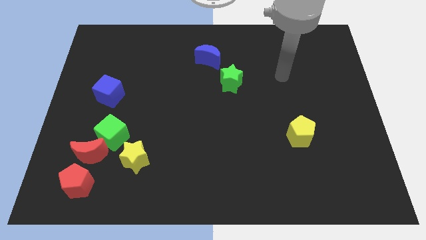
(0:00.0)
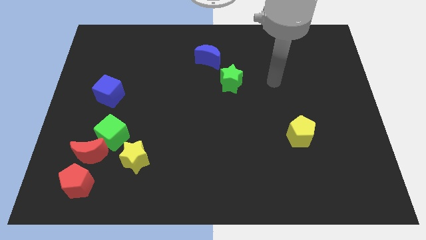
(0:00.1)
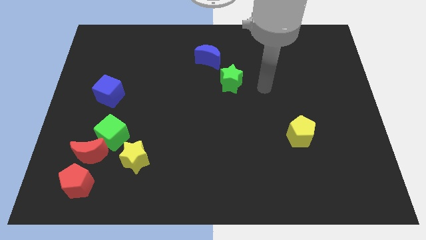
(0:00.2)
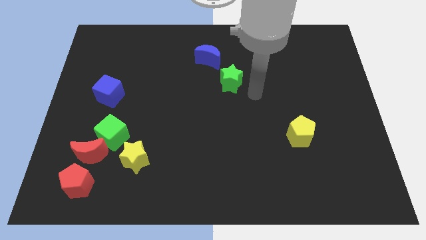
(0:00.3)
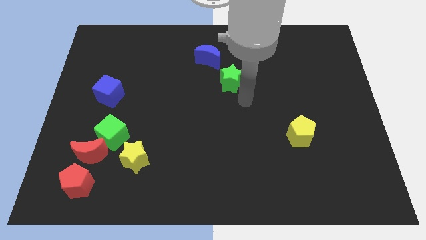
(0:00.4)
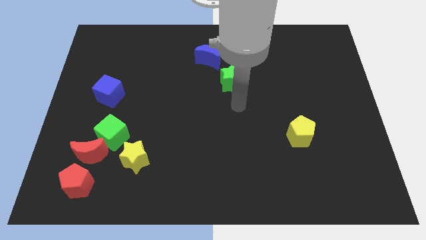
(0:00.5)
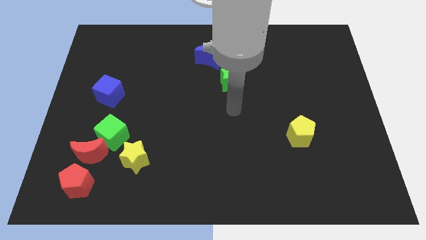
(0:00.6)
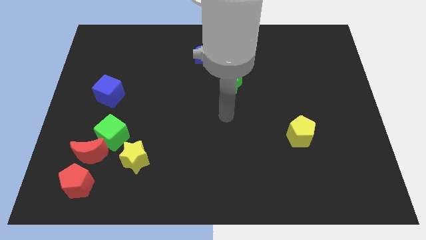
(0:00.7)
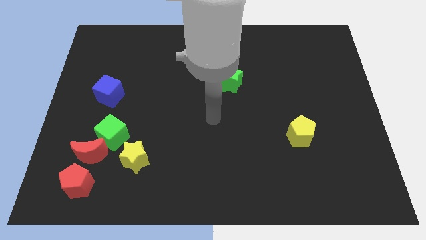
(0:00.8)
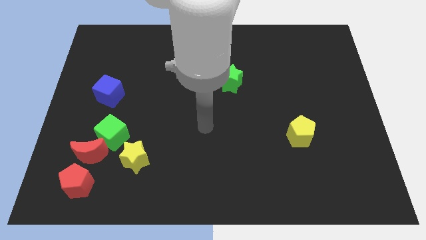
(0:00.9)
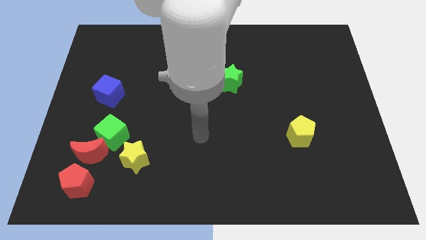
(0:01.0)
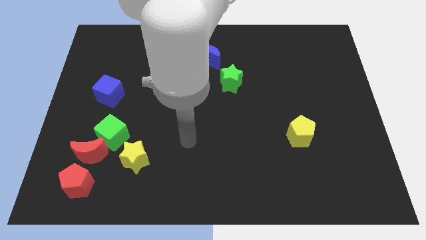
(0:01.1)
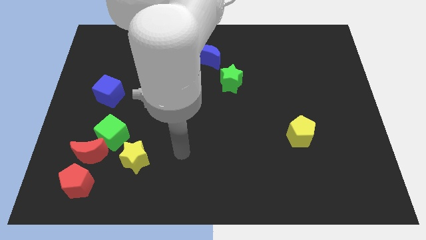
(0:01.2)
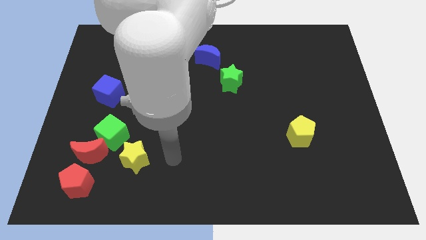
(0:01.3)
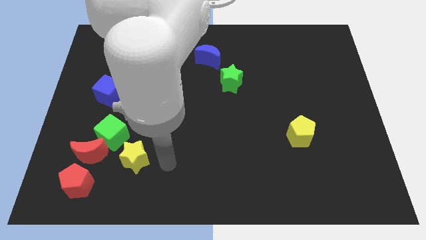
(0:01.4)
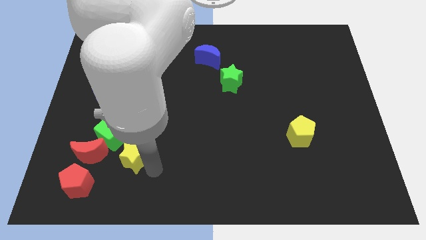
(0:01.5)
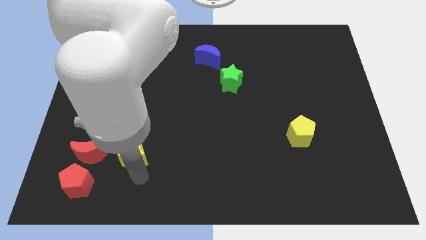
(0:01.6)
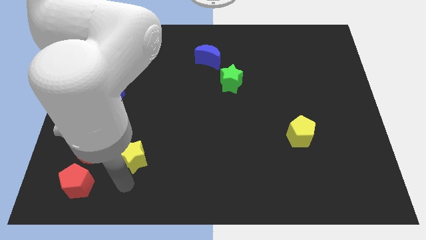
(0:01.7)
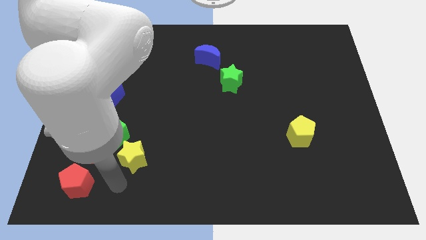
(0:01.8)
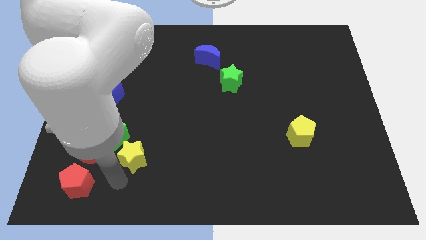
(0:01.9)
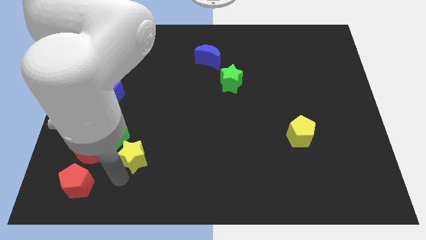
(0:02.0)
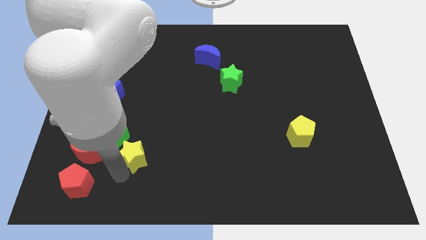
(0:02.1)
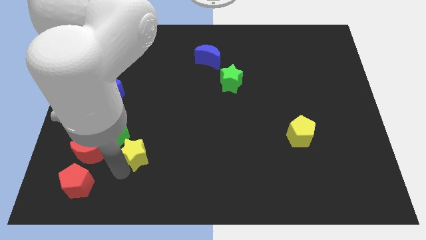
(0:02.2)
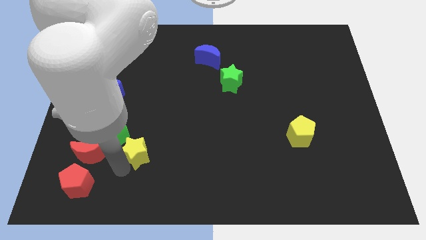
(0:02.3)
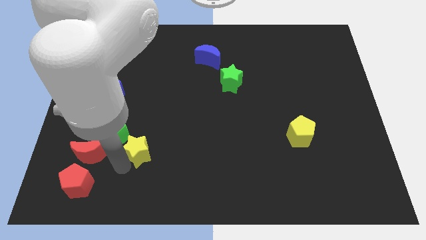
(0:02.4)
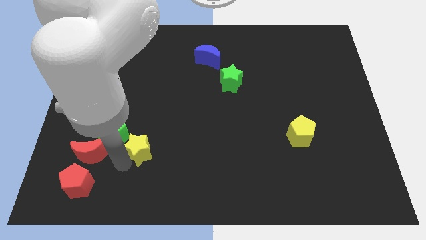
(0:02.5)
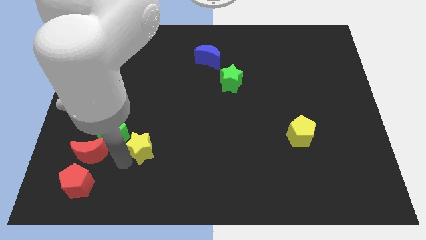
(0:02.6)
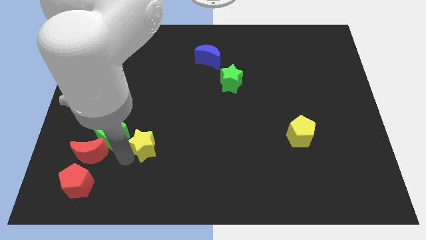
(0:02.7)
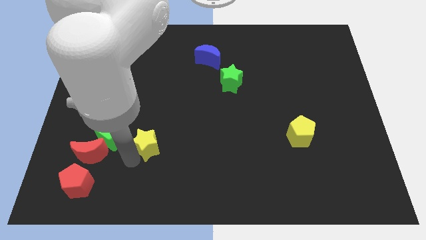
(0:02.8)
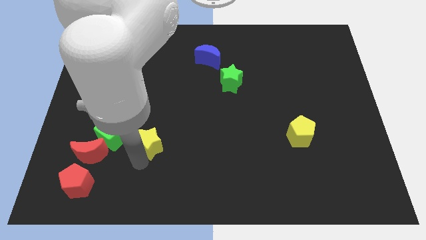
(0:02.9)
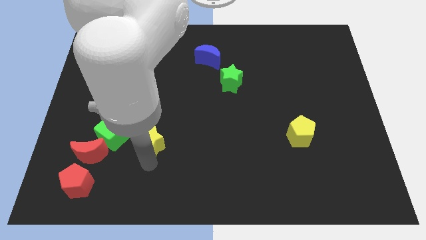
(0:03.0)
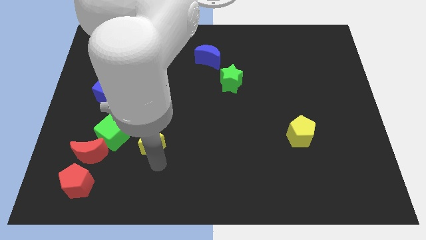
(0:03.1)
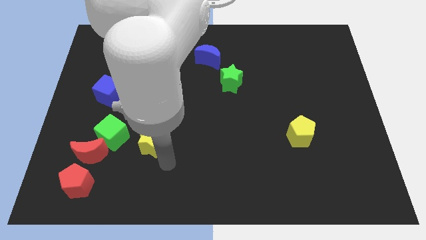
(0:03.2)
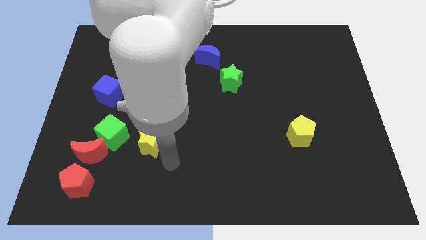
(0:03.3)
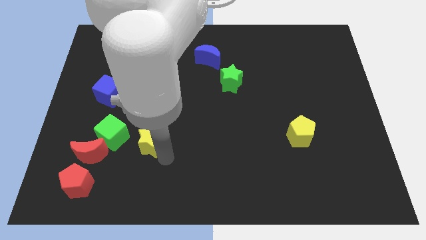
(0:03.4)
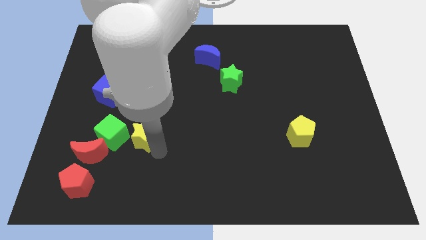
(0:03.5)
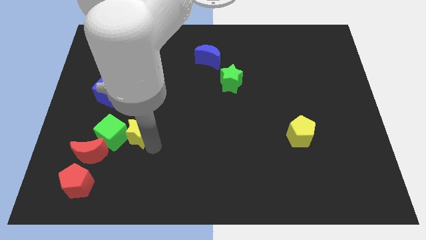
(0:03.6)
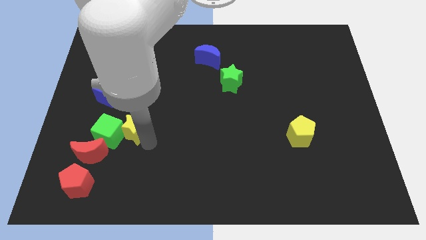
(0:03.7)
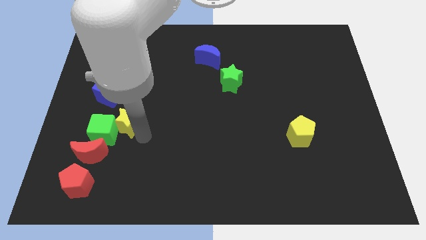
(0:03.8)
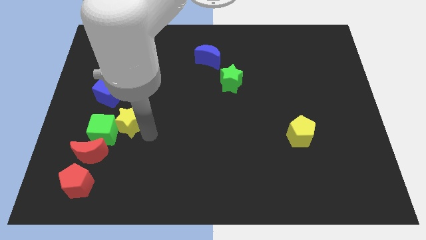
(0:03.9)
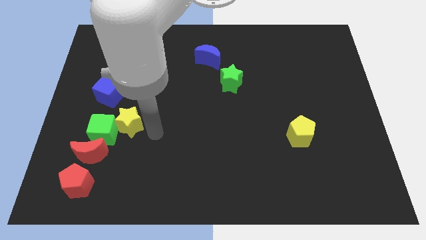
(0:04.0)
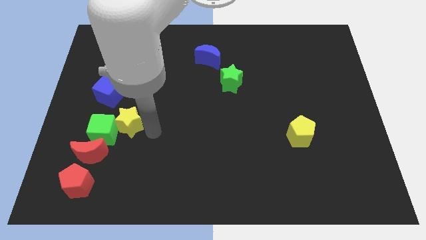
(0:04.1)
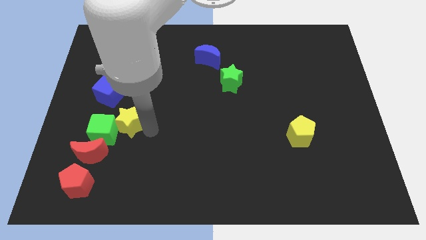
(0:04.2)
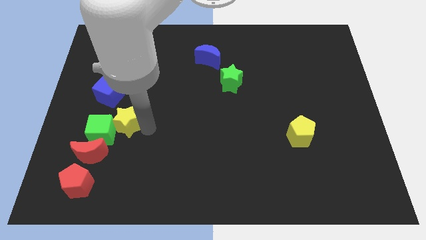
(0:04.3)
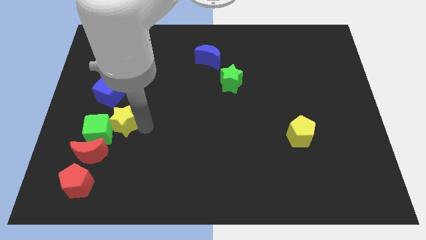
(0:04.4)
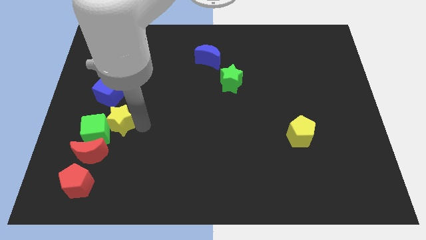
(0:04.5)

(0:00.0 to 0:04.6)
slide the yellow star to the top of the red moon

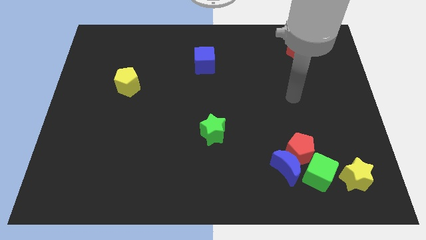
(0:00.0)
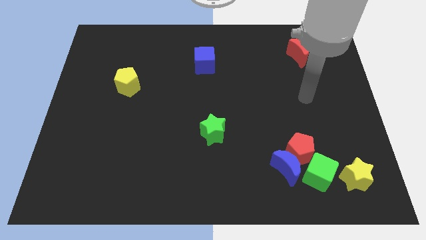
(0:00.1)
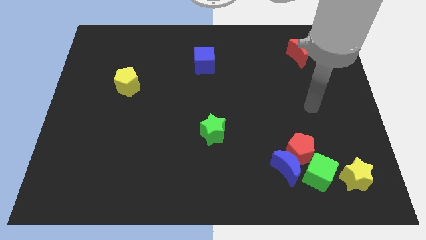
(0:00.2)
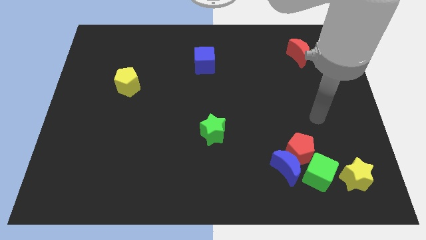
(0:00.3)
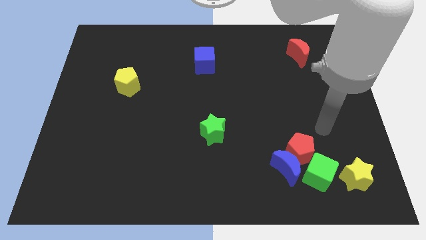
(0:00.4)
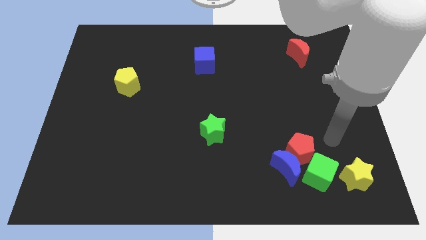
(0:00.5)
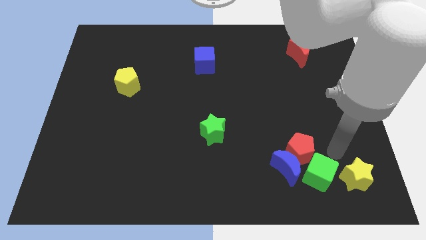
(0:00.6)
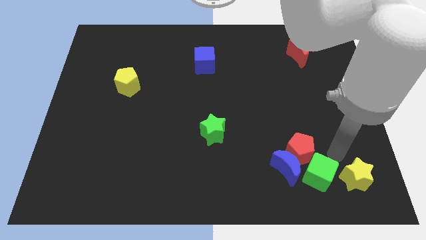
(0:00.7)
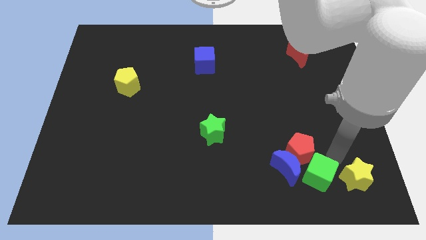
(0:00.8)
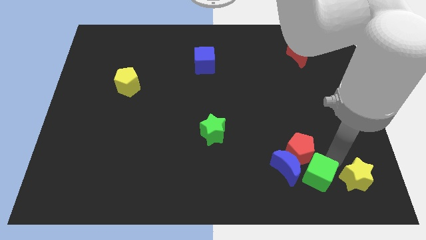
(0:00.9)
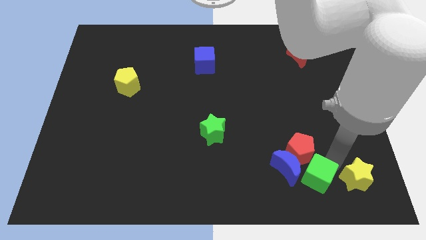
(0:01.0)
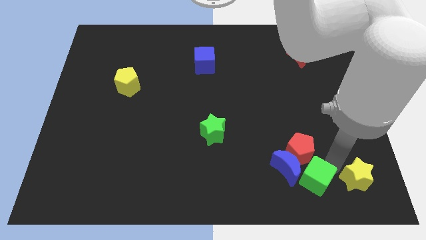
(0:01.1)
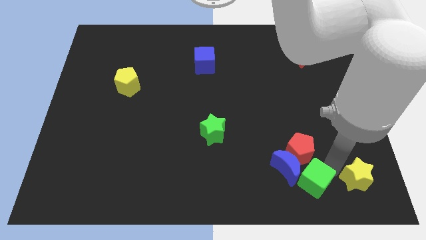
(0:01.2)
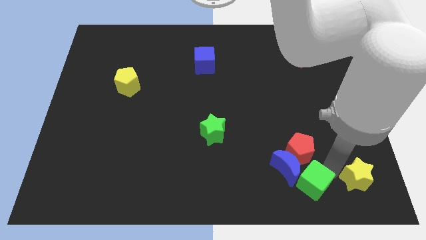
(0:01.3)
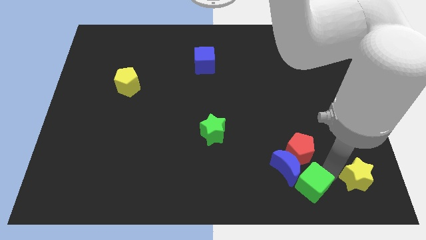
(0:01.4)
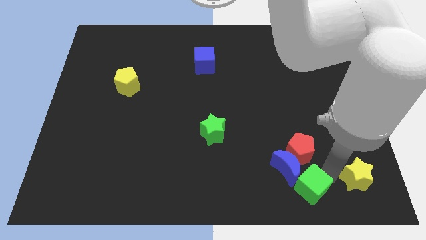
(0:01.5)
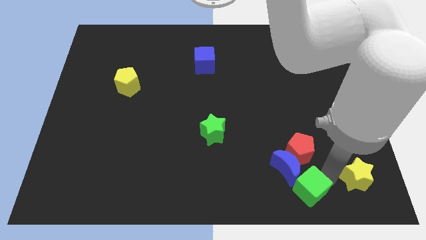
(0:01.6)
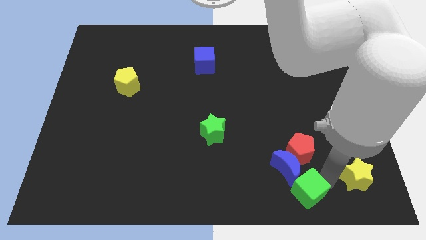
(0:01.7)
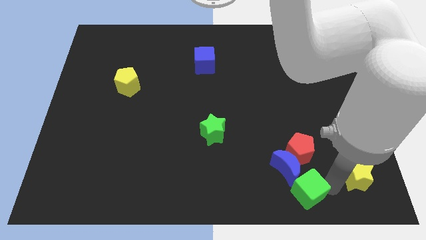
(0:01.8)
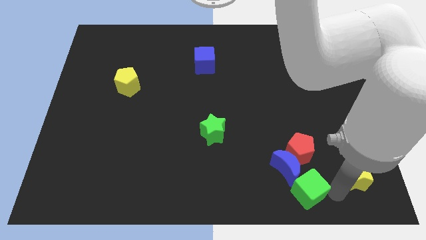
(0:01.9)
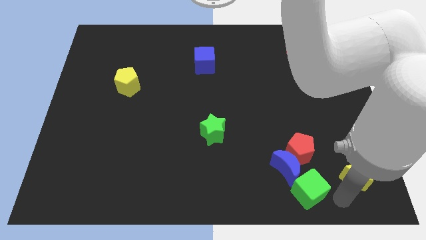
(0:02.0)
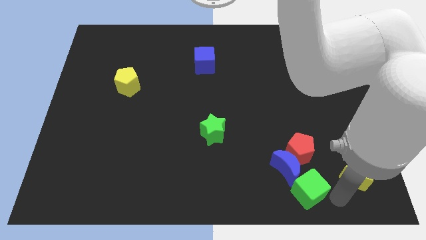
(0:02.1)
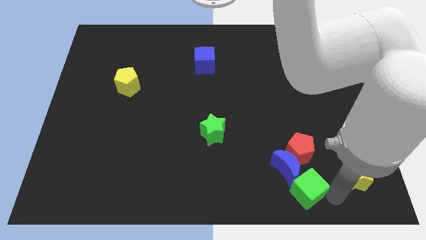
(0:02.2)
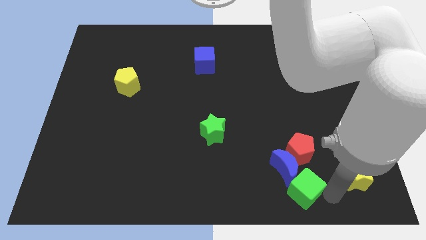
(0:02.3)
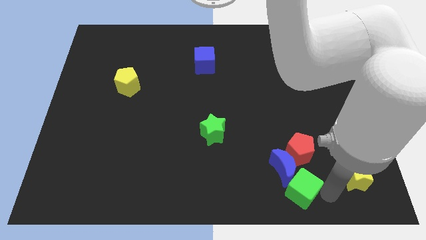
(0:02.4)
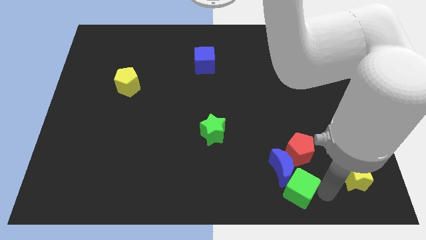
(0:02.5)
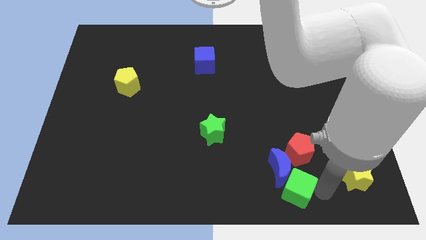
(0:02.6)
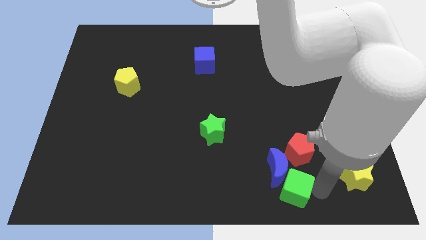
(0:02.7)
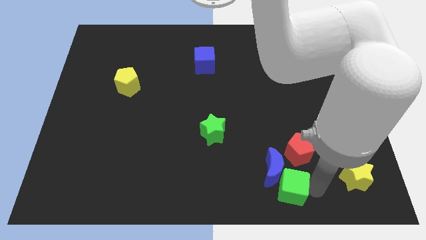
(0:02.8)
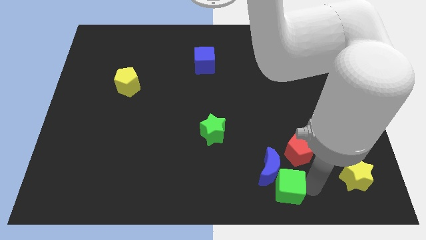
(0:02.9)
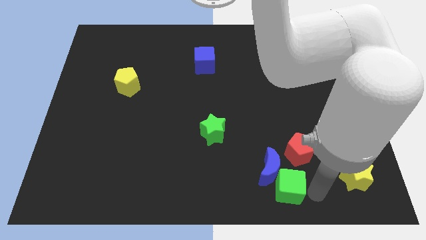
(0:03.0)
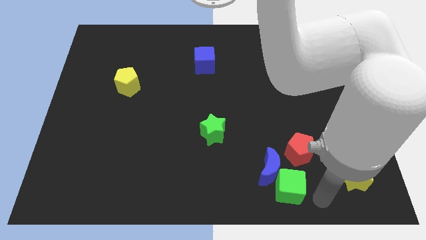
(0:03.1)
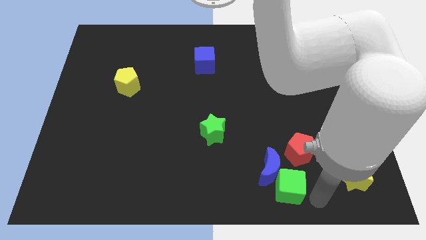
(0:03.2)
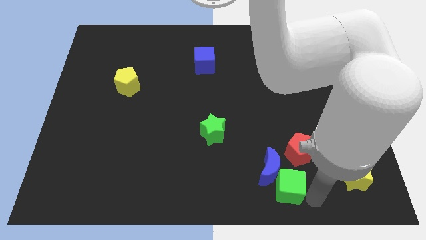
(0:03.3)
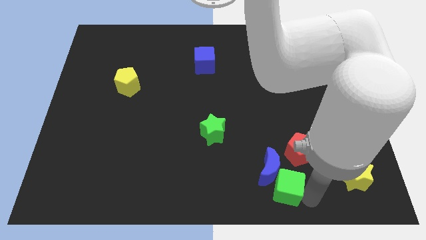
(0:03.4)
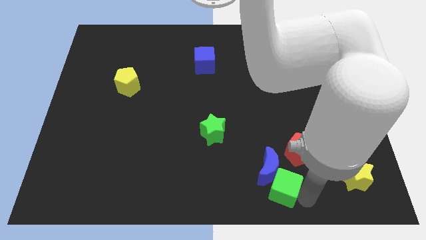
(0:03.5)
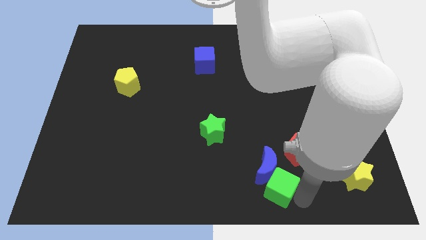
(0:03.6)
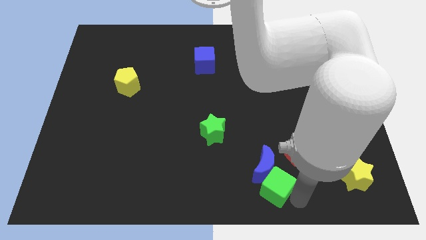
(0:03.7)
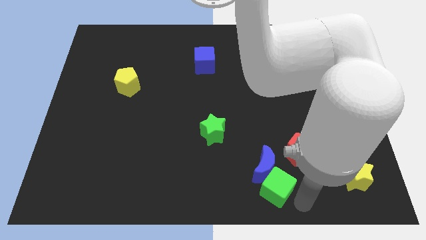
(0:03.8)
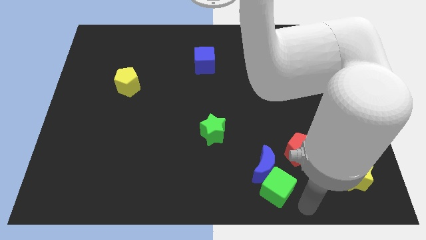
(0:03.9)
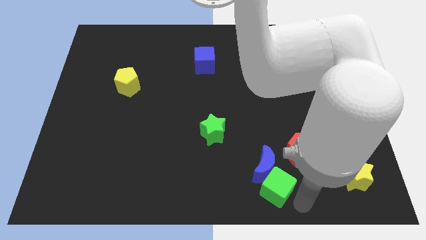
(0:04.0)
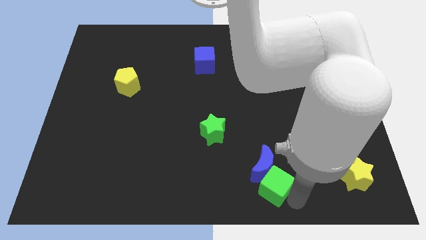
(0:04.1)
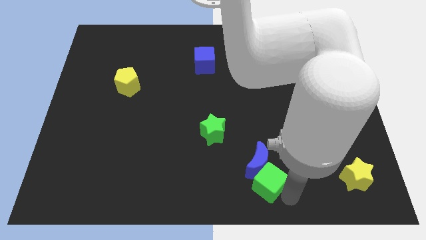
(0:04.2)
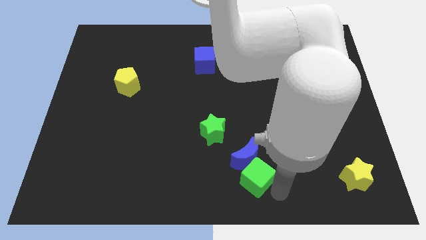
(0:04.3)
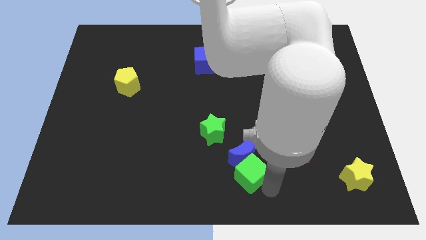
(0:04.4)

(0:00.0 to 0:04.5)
push the green cube to the bottom right of the green star
